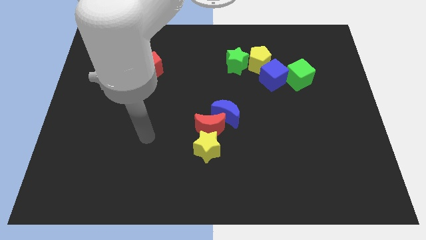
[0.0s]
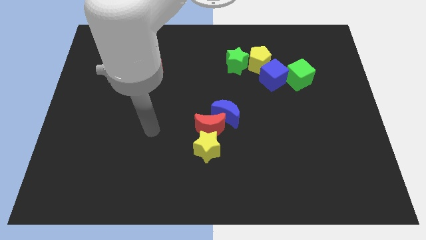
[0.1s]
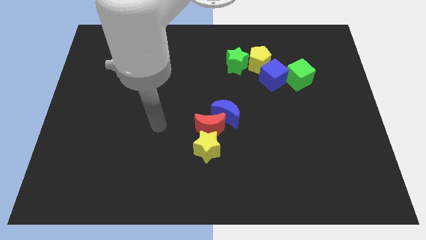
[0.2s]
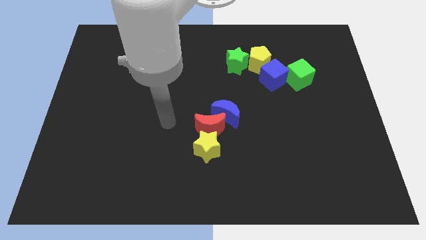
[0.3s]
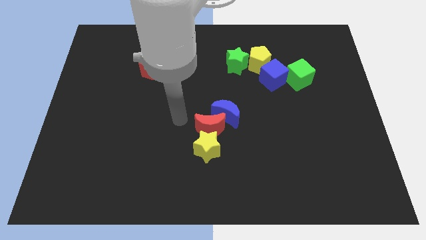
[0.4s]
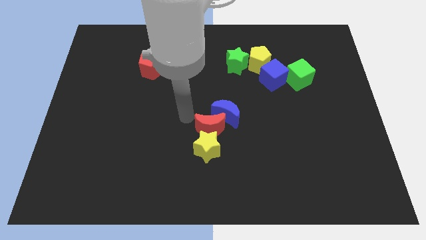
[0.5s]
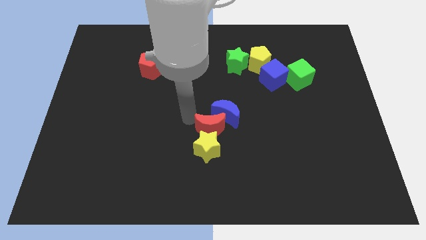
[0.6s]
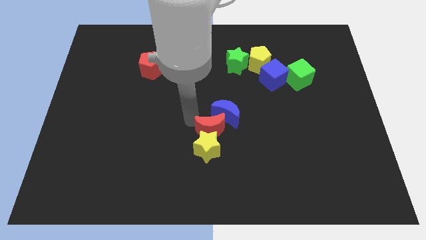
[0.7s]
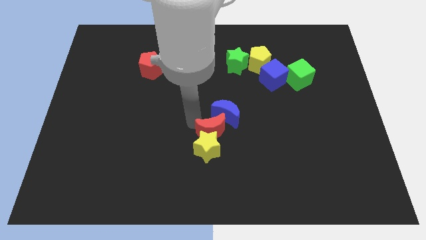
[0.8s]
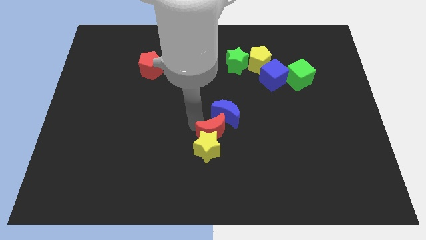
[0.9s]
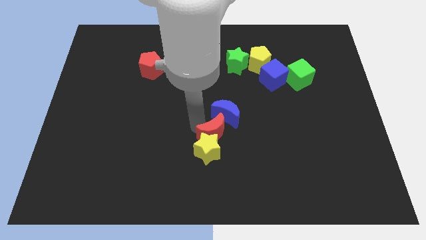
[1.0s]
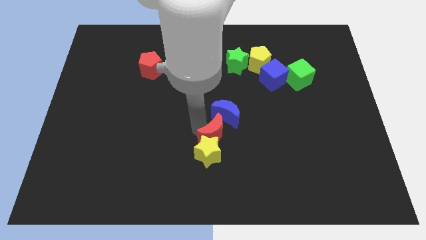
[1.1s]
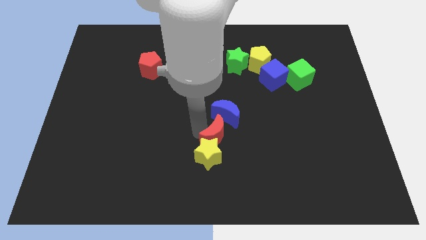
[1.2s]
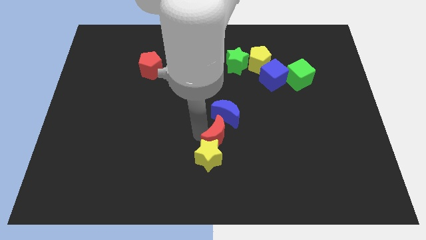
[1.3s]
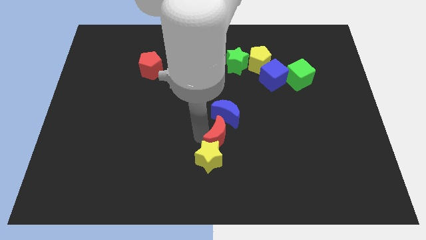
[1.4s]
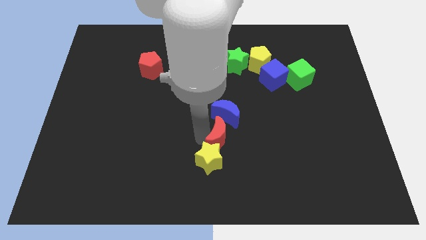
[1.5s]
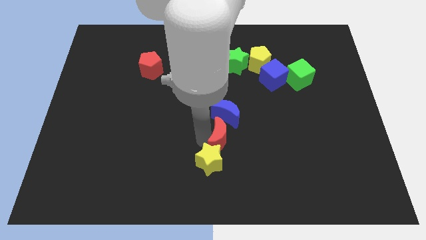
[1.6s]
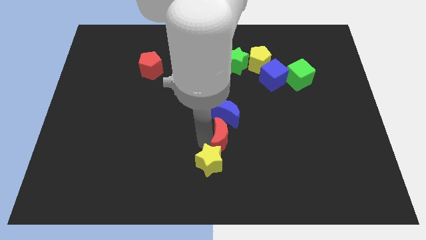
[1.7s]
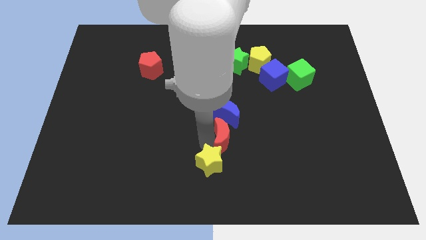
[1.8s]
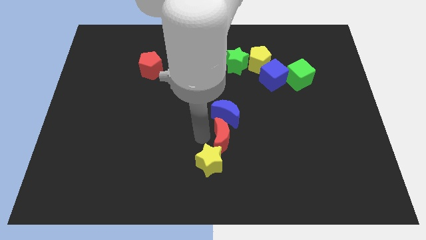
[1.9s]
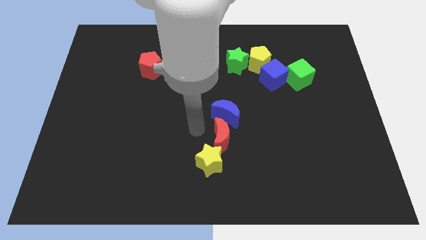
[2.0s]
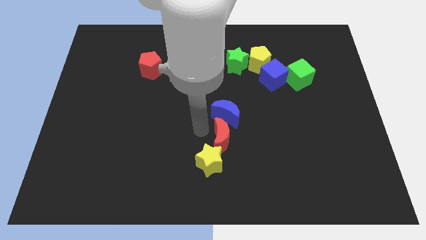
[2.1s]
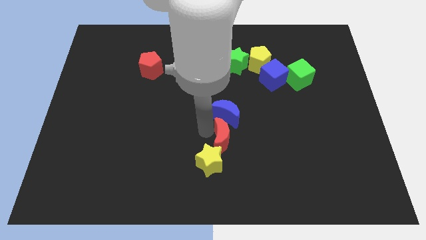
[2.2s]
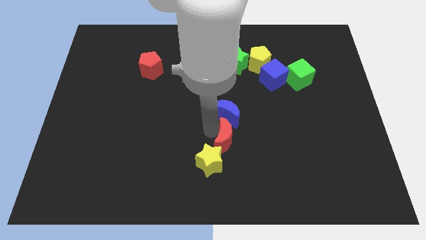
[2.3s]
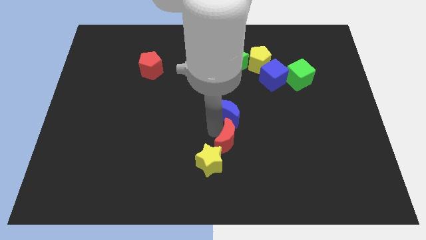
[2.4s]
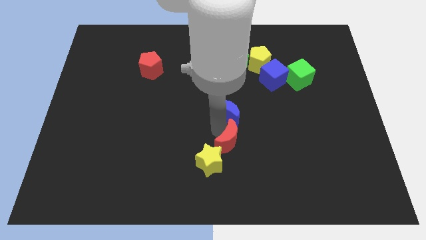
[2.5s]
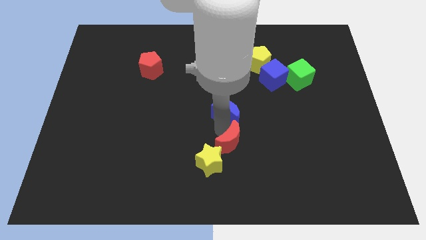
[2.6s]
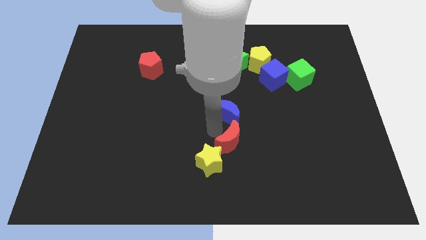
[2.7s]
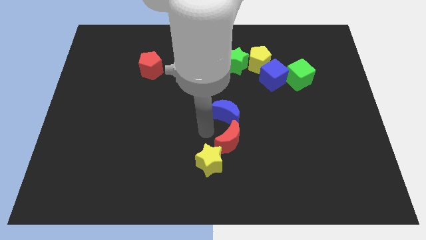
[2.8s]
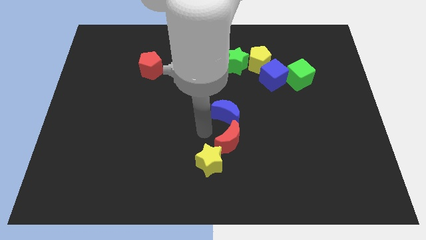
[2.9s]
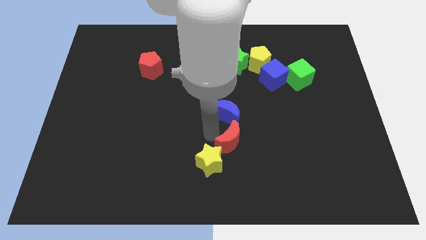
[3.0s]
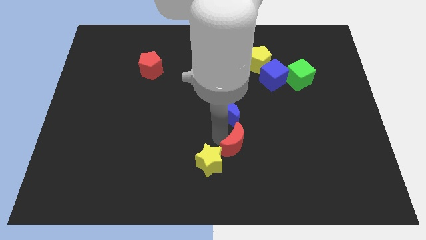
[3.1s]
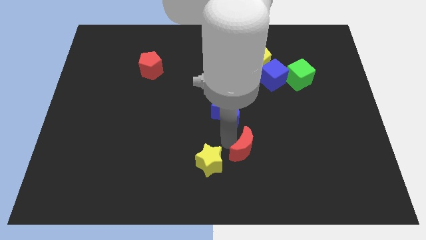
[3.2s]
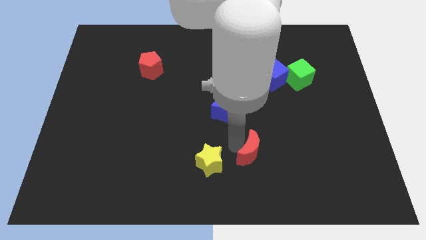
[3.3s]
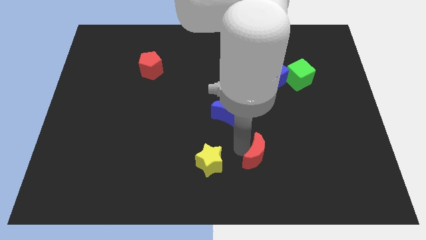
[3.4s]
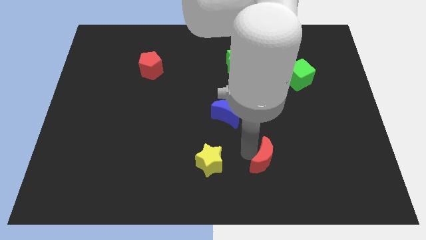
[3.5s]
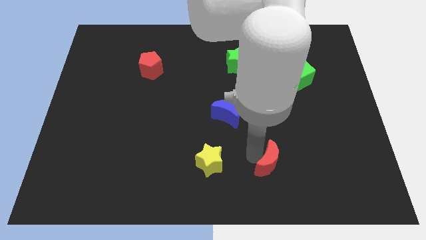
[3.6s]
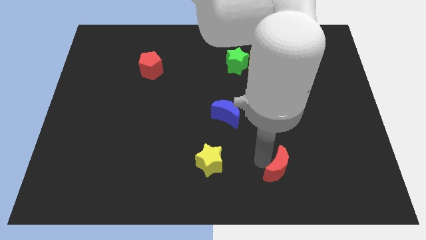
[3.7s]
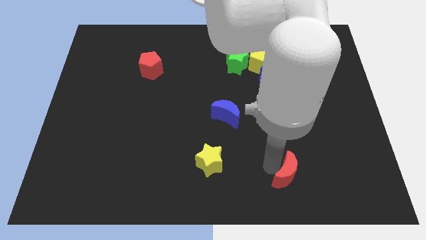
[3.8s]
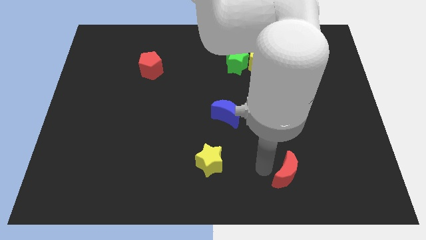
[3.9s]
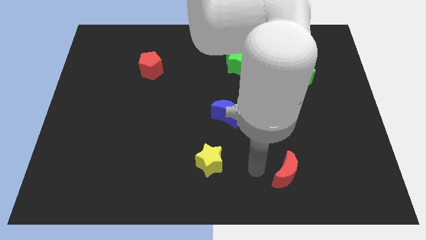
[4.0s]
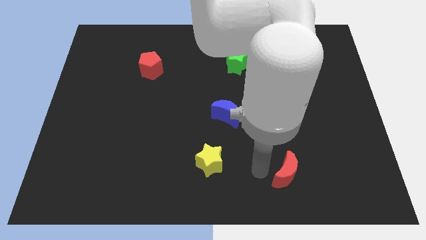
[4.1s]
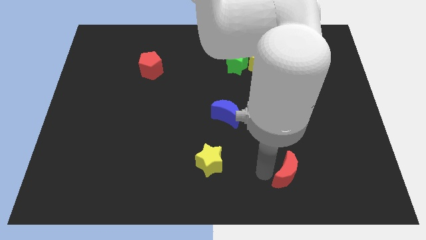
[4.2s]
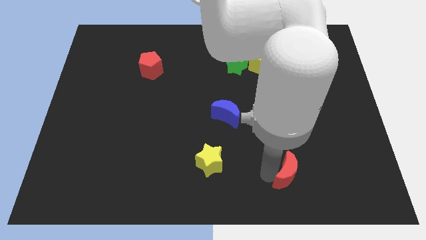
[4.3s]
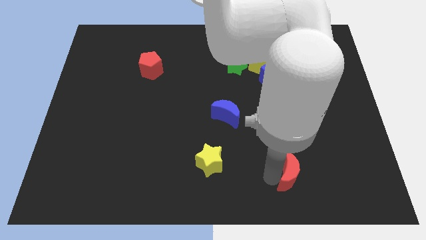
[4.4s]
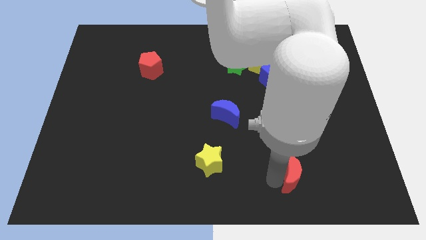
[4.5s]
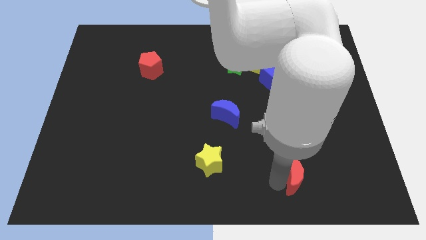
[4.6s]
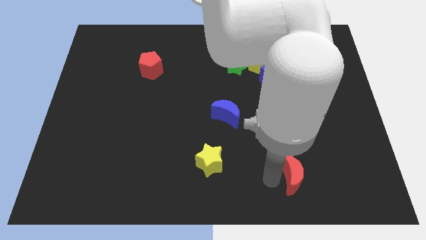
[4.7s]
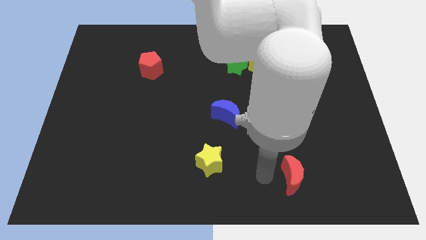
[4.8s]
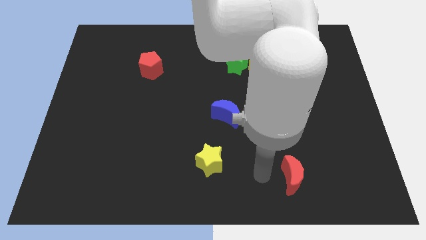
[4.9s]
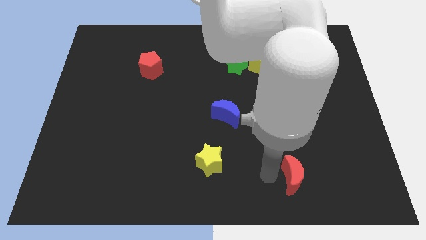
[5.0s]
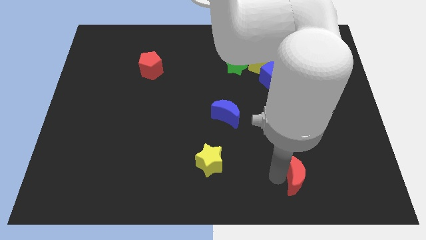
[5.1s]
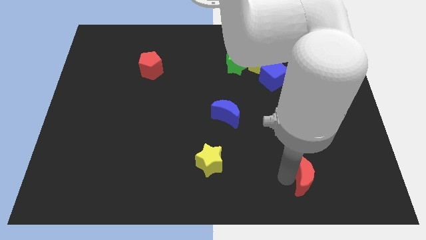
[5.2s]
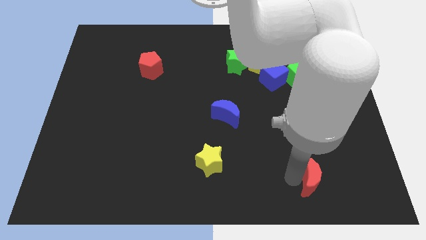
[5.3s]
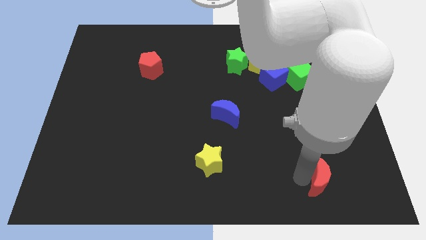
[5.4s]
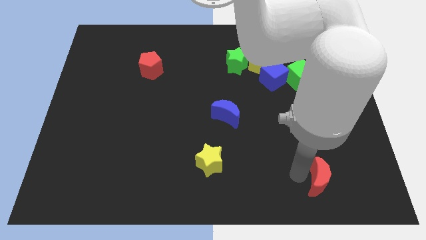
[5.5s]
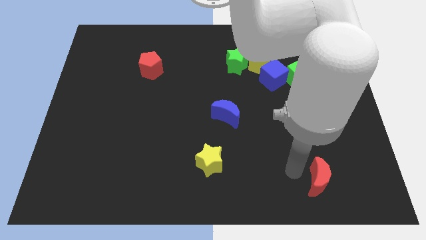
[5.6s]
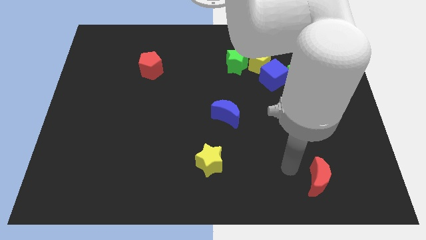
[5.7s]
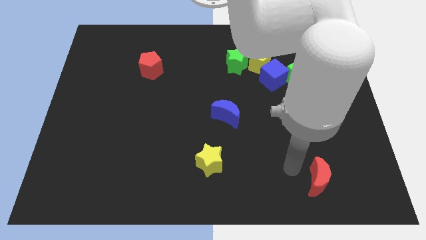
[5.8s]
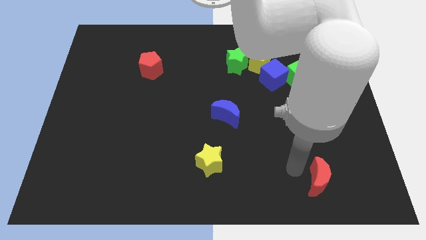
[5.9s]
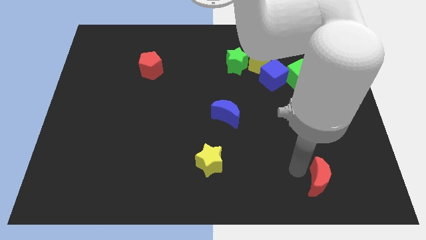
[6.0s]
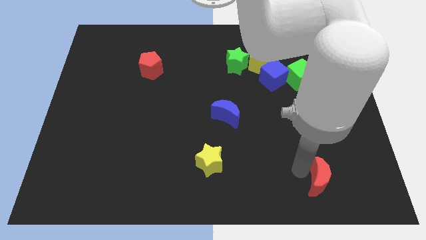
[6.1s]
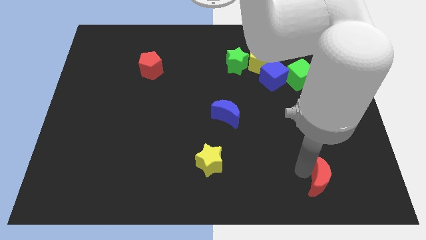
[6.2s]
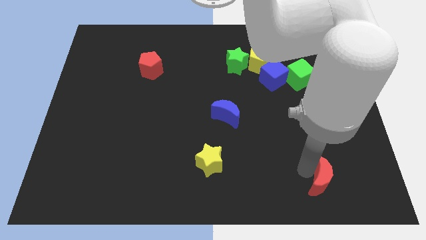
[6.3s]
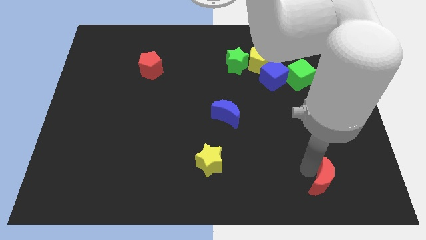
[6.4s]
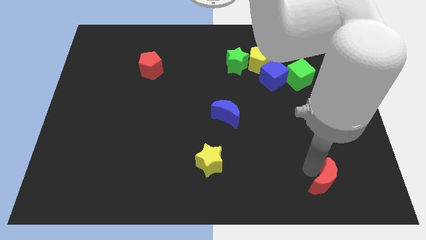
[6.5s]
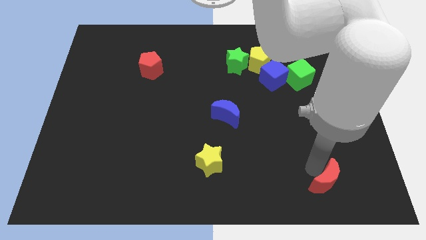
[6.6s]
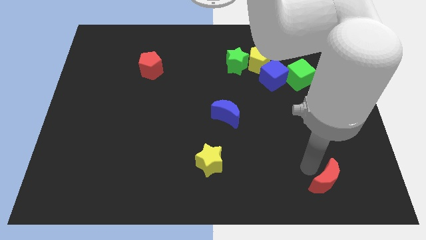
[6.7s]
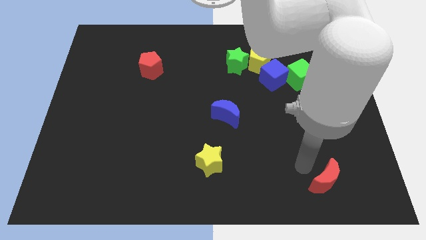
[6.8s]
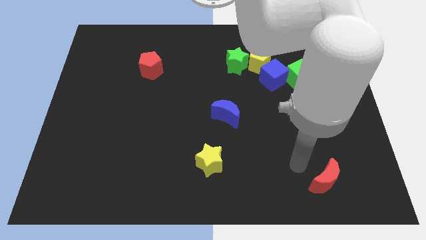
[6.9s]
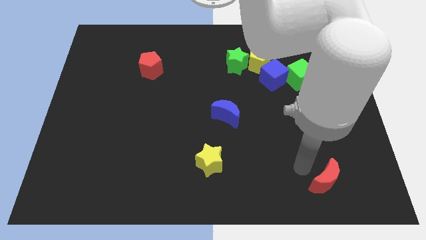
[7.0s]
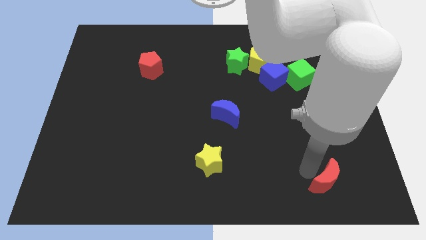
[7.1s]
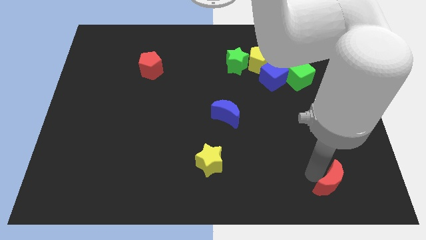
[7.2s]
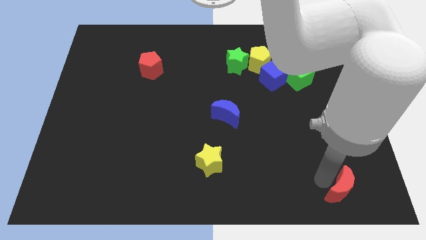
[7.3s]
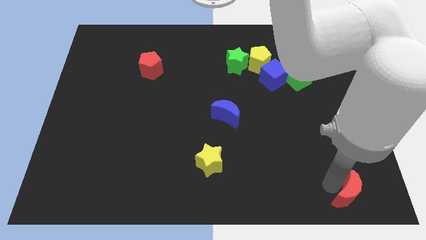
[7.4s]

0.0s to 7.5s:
slide the red moon to the bottom right of the board
